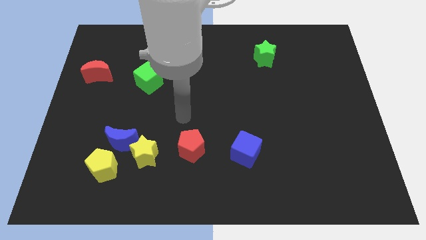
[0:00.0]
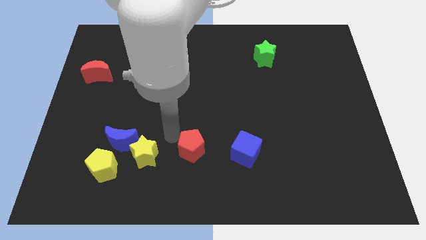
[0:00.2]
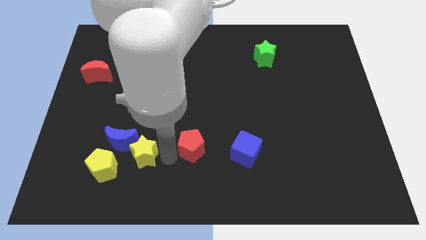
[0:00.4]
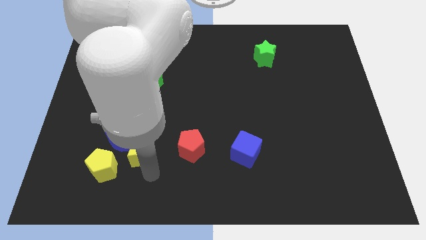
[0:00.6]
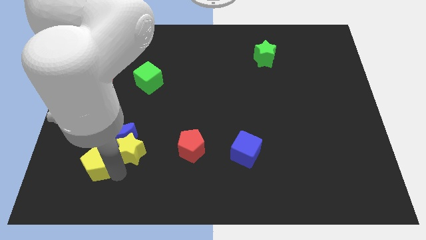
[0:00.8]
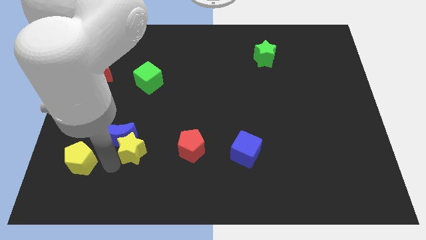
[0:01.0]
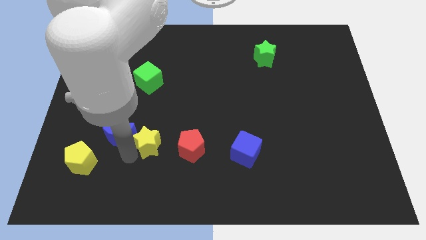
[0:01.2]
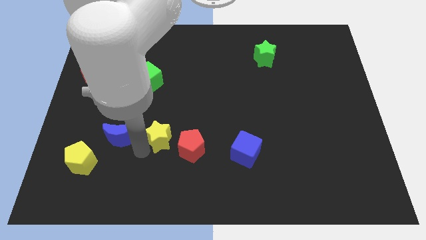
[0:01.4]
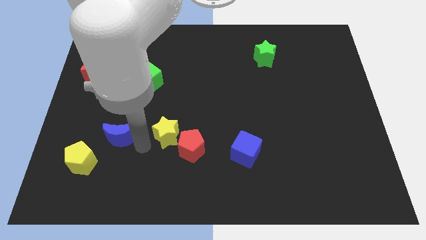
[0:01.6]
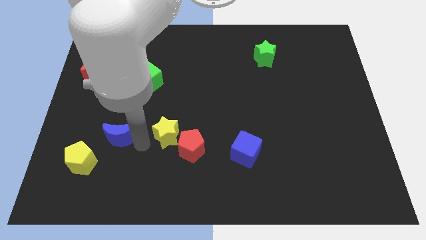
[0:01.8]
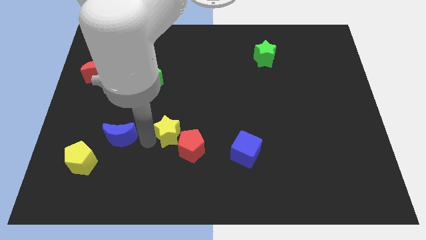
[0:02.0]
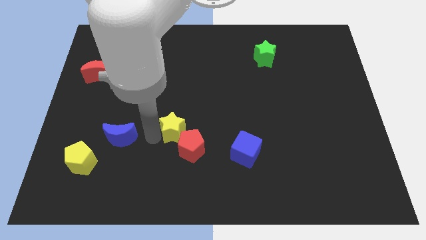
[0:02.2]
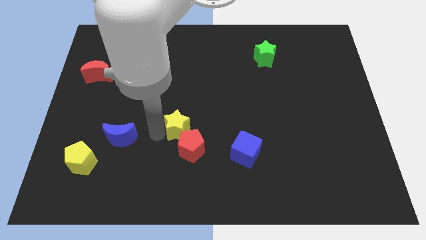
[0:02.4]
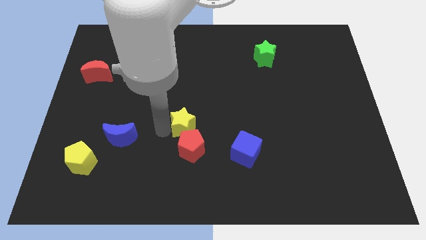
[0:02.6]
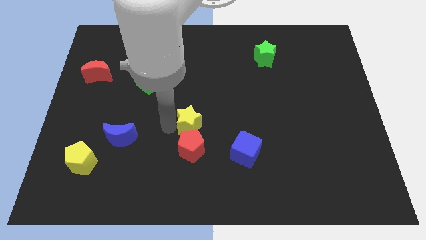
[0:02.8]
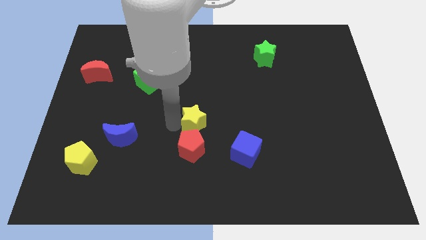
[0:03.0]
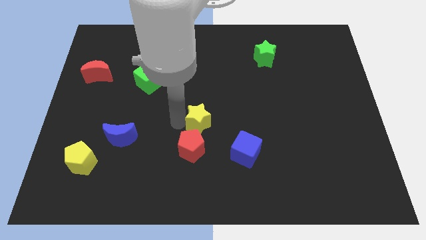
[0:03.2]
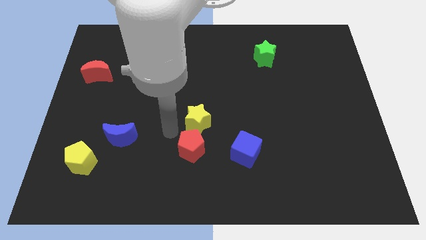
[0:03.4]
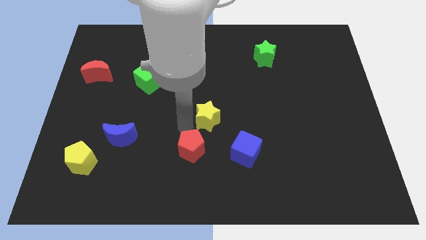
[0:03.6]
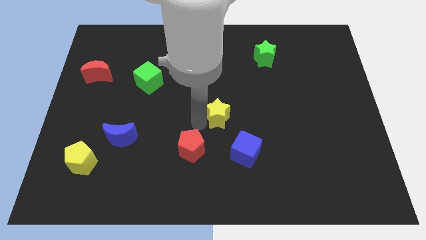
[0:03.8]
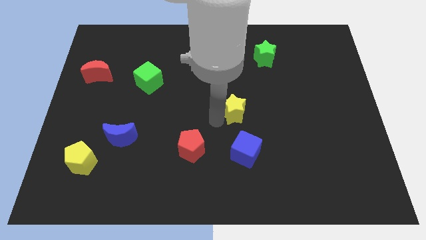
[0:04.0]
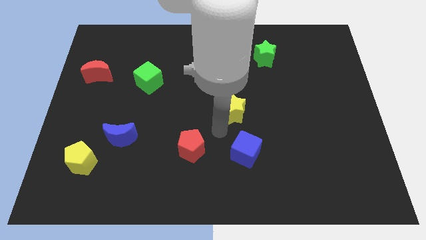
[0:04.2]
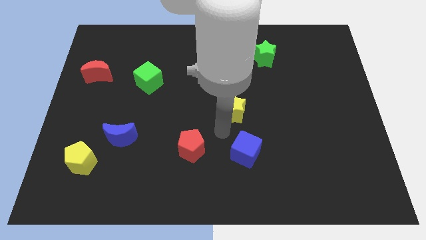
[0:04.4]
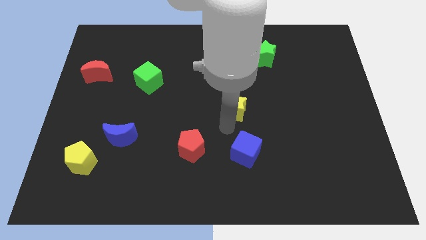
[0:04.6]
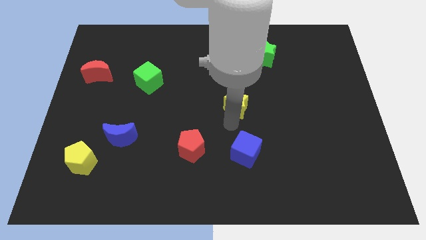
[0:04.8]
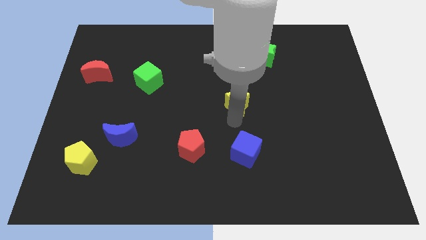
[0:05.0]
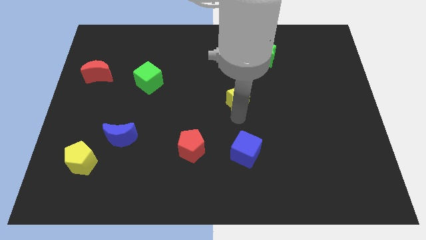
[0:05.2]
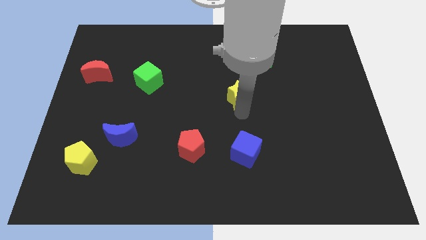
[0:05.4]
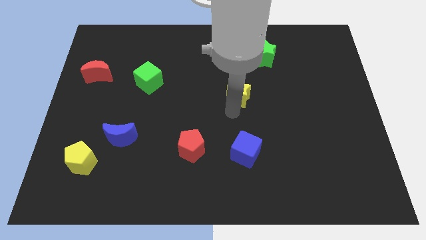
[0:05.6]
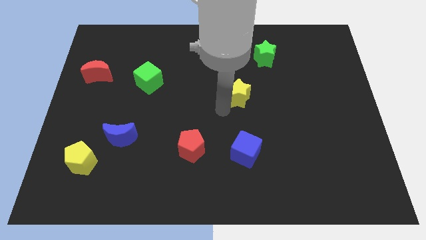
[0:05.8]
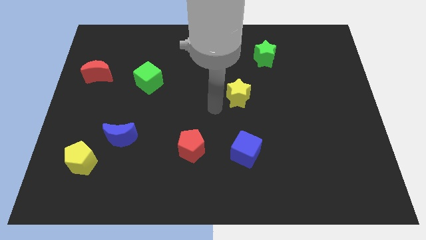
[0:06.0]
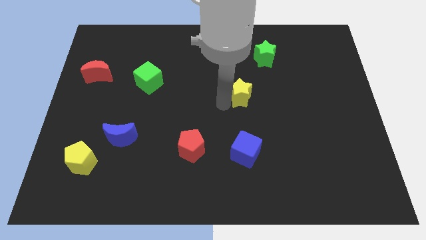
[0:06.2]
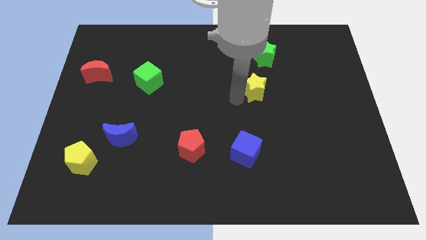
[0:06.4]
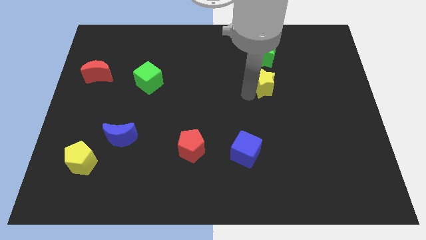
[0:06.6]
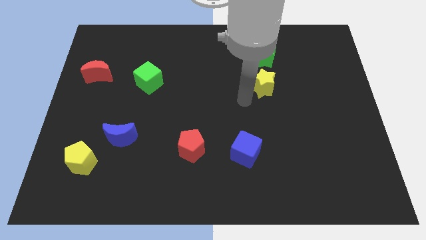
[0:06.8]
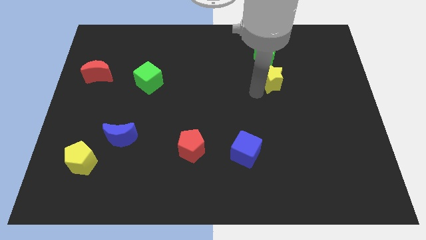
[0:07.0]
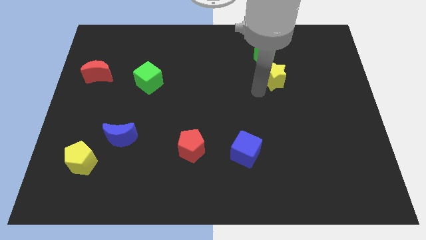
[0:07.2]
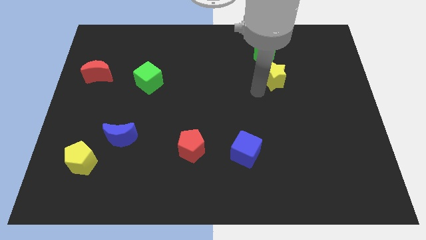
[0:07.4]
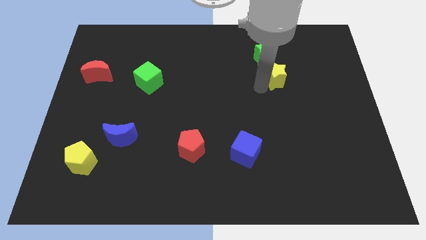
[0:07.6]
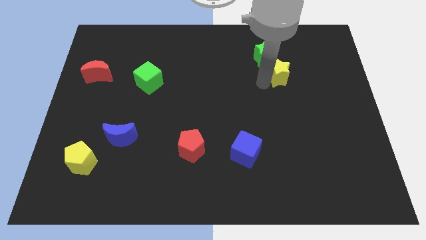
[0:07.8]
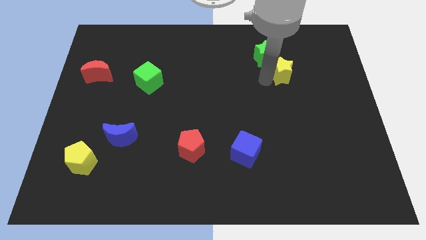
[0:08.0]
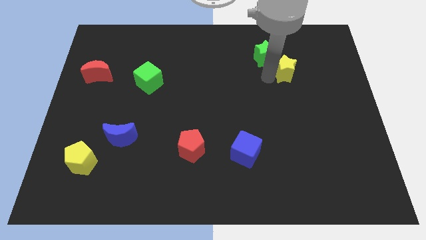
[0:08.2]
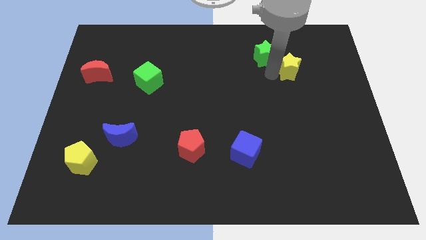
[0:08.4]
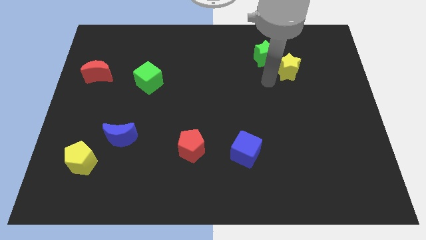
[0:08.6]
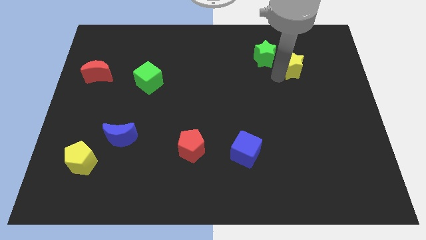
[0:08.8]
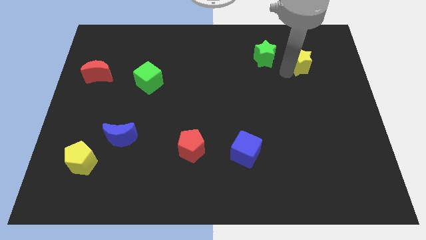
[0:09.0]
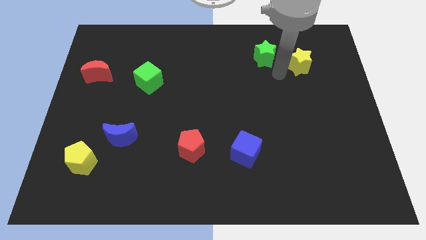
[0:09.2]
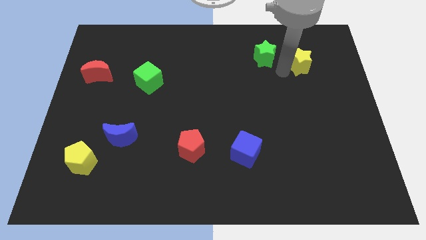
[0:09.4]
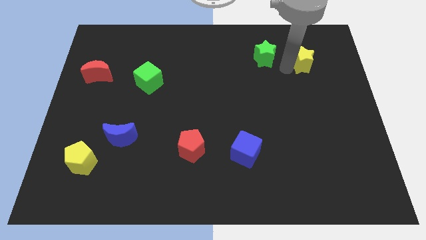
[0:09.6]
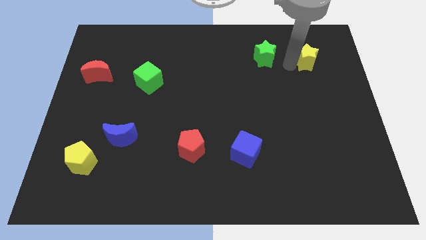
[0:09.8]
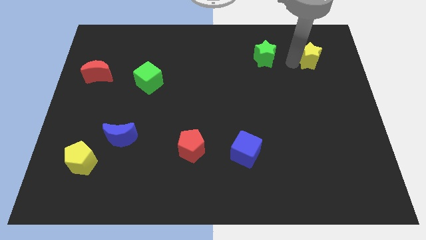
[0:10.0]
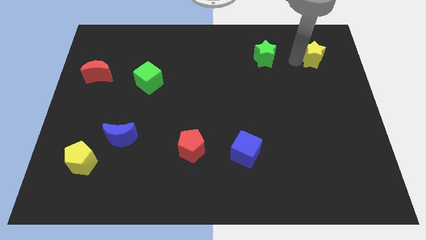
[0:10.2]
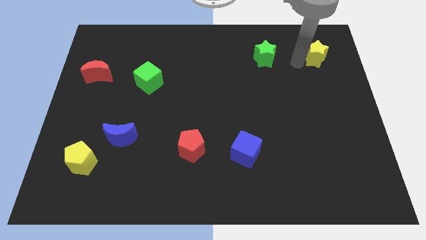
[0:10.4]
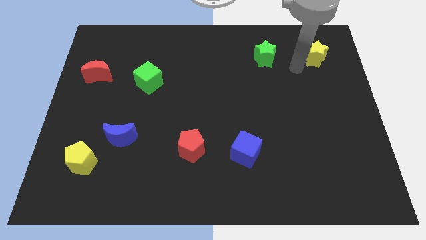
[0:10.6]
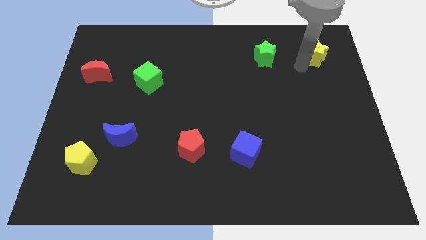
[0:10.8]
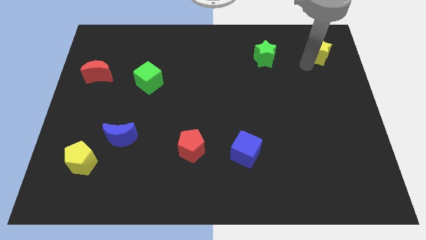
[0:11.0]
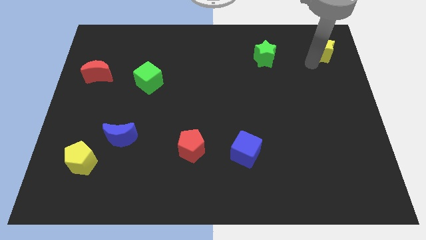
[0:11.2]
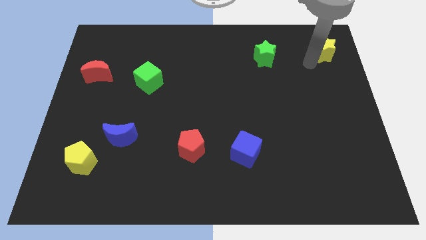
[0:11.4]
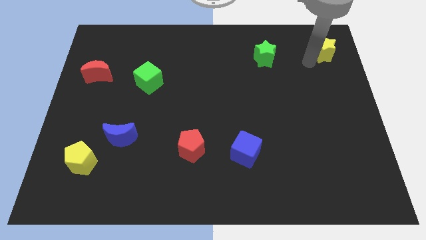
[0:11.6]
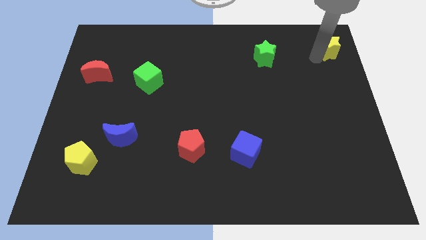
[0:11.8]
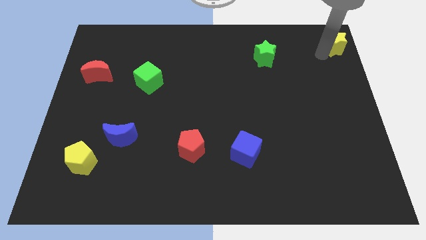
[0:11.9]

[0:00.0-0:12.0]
push the yellow star to the upper right corner

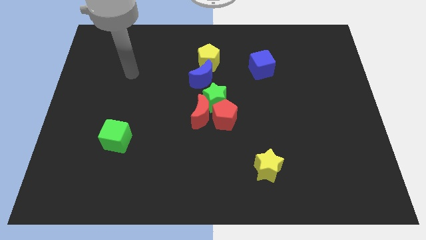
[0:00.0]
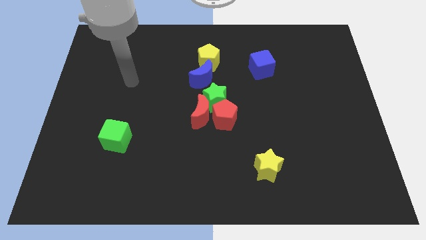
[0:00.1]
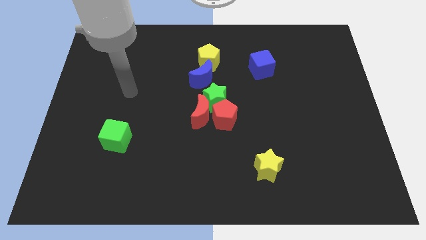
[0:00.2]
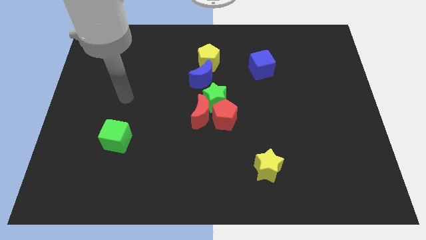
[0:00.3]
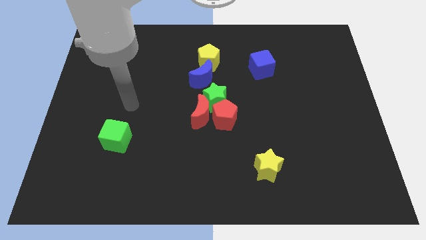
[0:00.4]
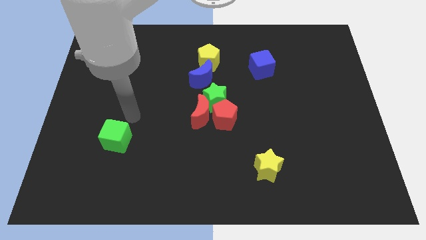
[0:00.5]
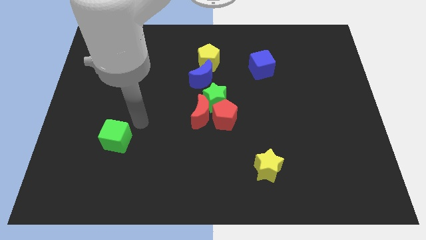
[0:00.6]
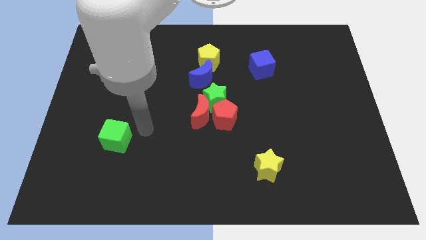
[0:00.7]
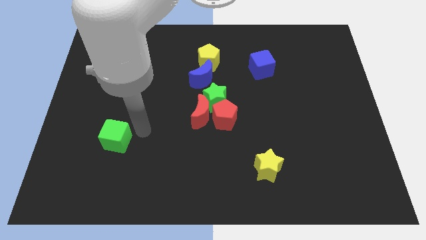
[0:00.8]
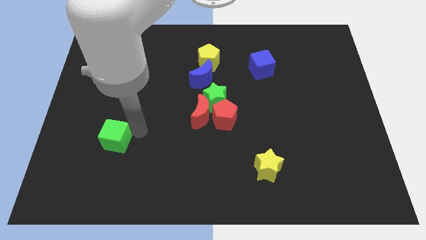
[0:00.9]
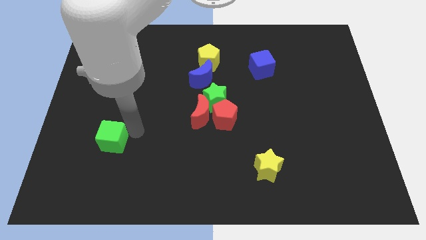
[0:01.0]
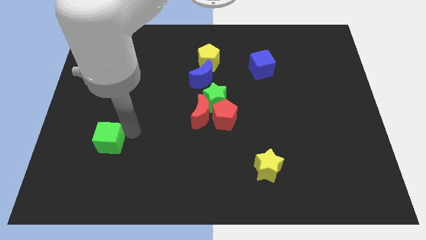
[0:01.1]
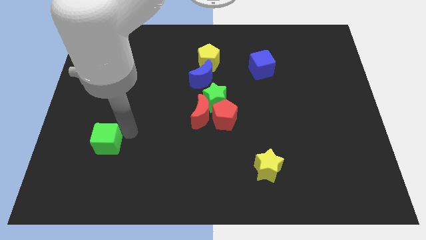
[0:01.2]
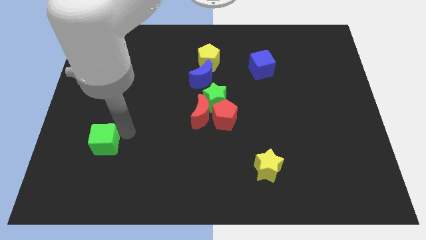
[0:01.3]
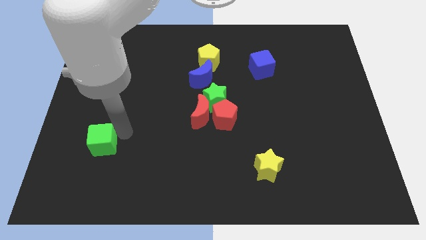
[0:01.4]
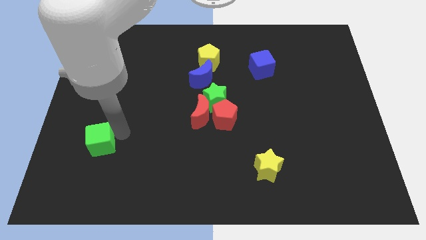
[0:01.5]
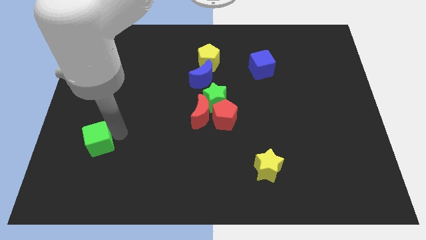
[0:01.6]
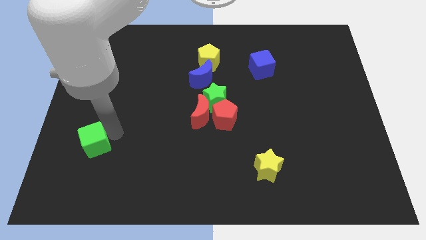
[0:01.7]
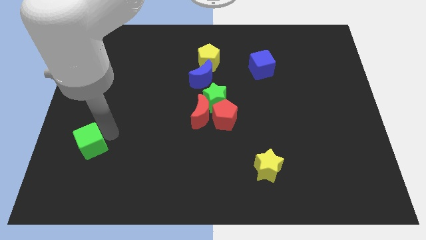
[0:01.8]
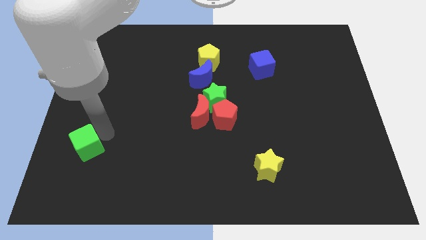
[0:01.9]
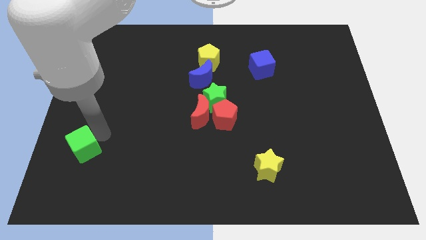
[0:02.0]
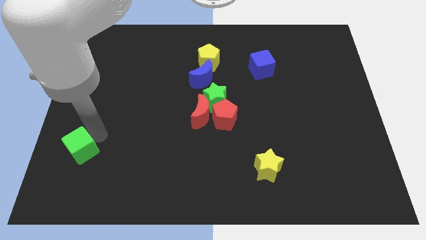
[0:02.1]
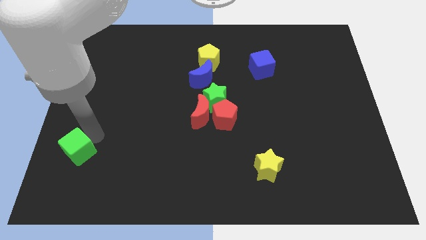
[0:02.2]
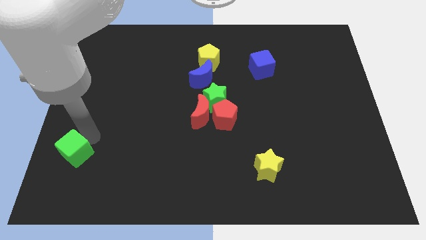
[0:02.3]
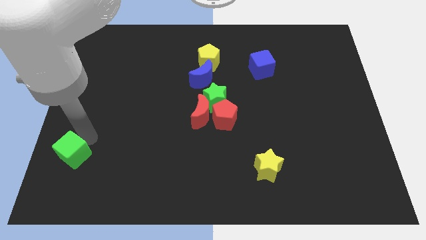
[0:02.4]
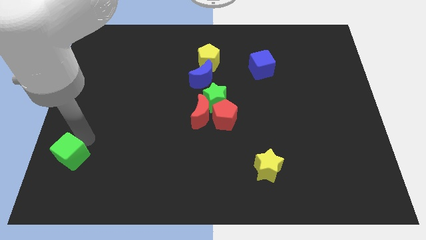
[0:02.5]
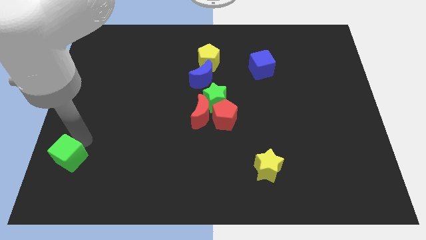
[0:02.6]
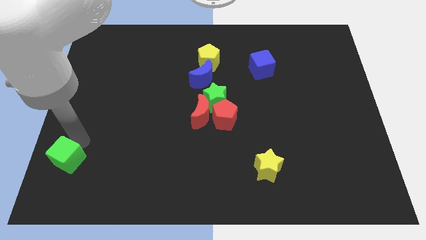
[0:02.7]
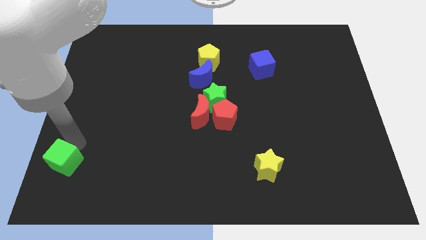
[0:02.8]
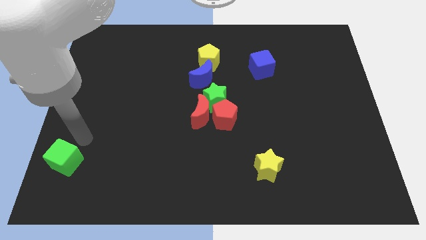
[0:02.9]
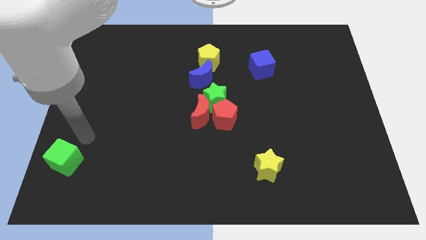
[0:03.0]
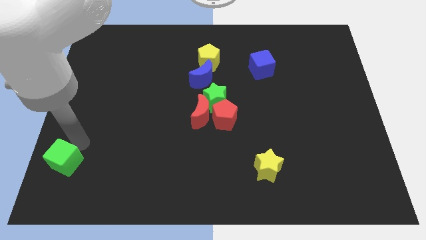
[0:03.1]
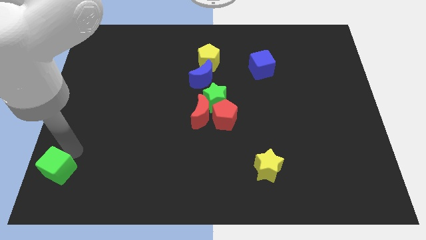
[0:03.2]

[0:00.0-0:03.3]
move the green cube to the bottom left
